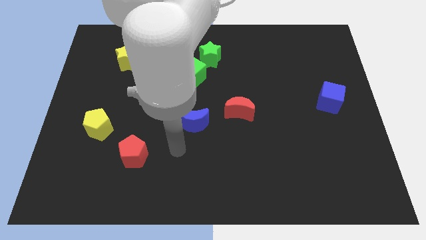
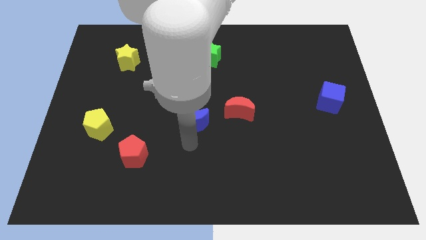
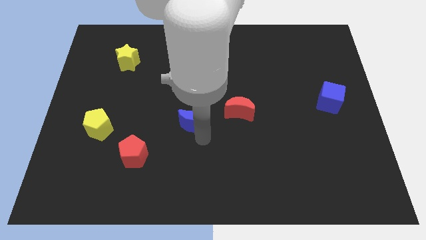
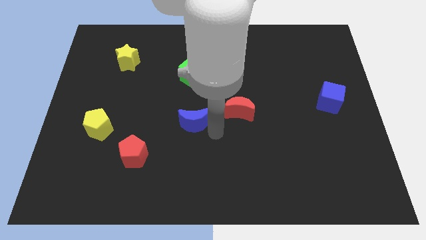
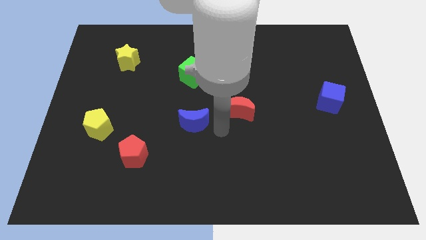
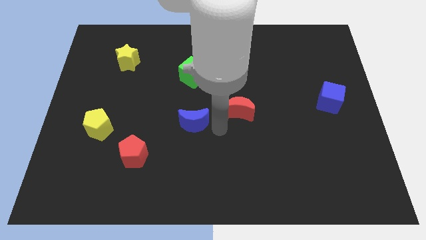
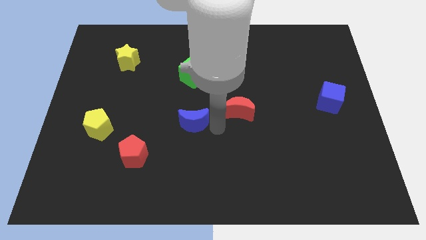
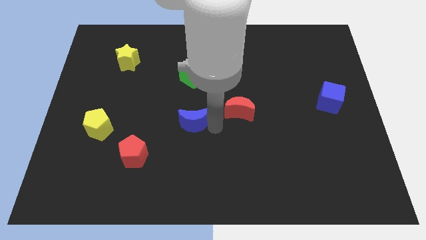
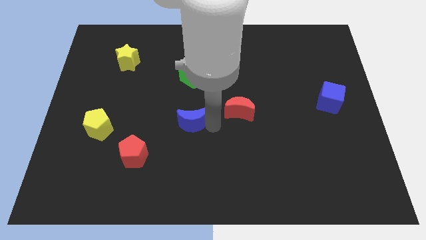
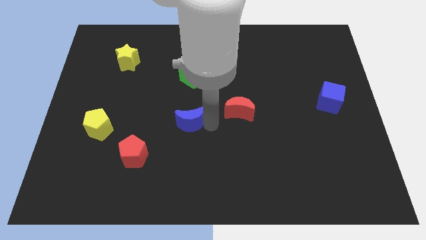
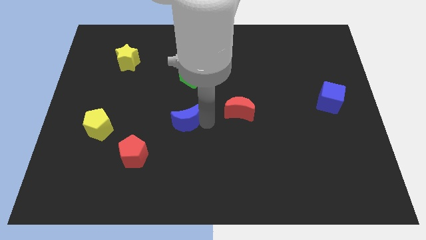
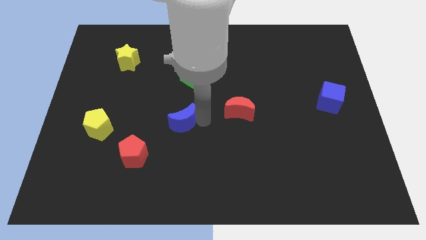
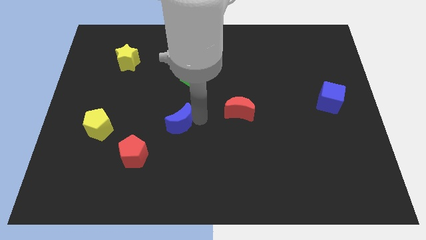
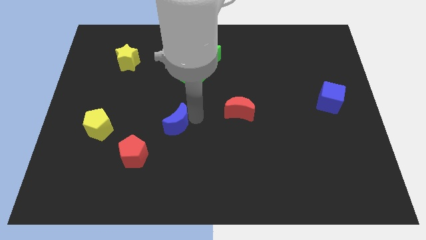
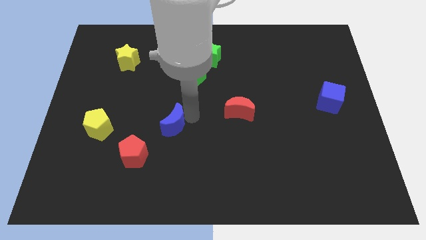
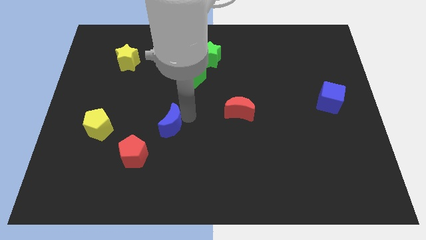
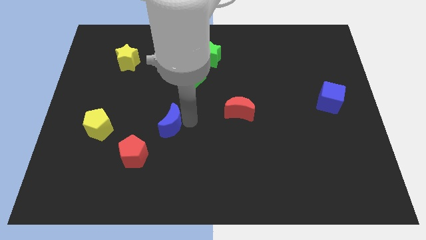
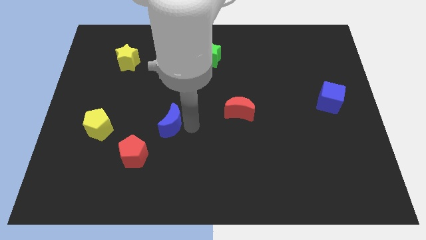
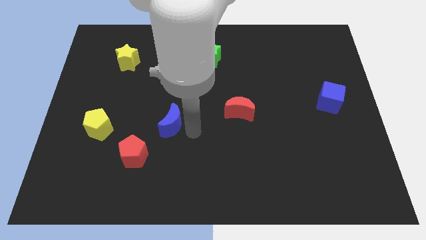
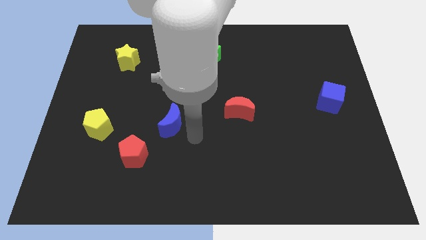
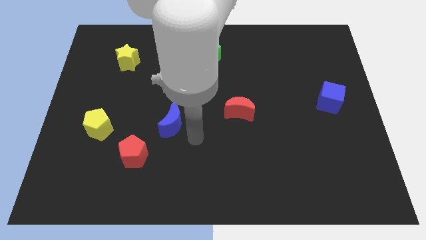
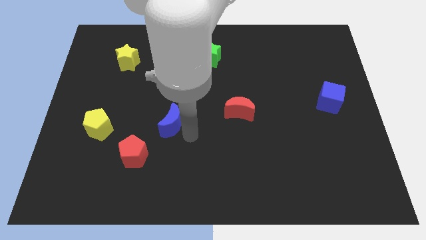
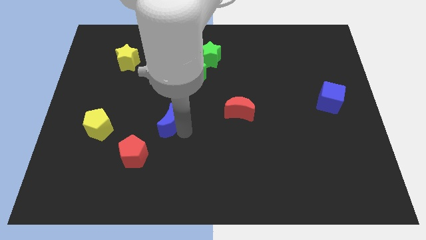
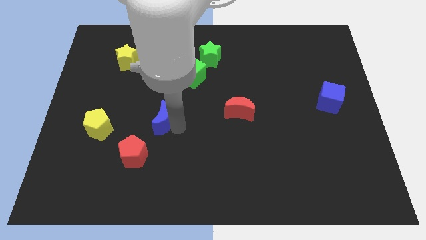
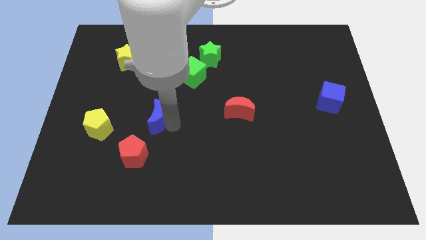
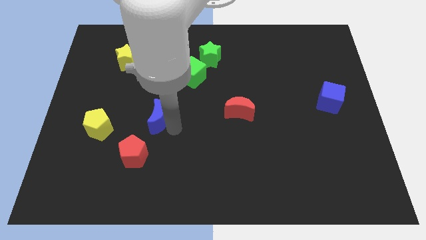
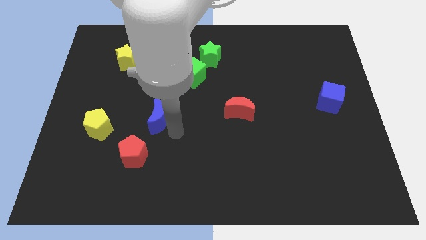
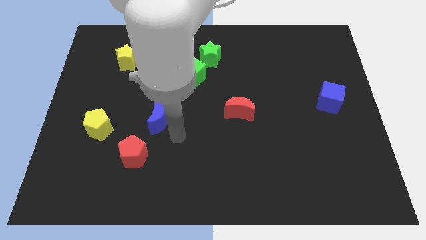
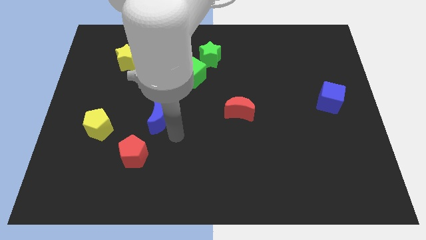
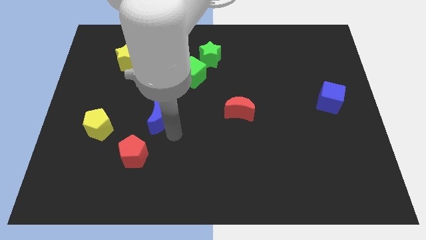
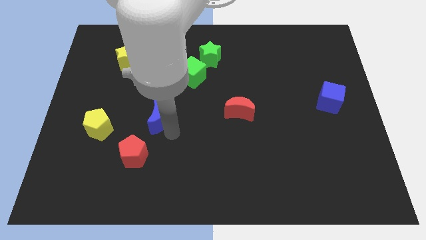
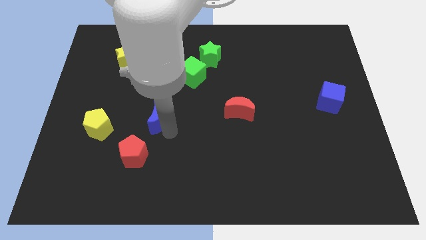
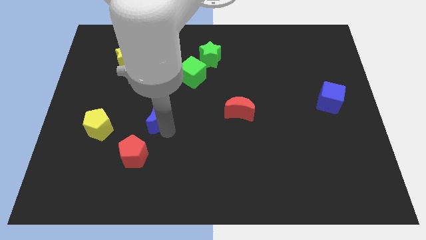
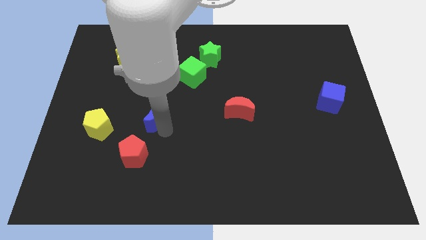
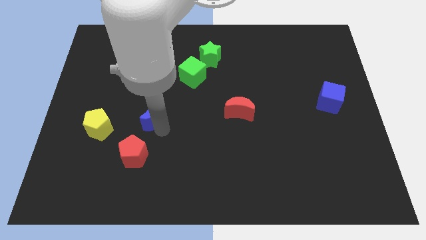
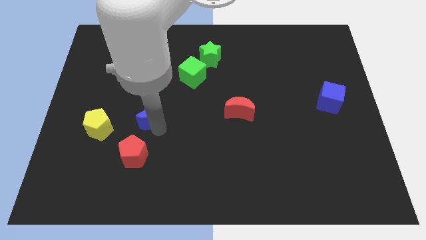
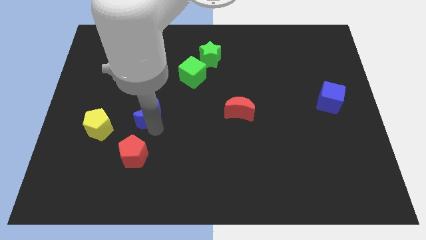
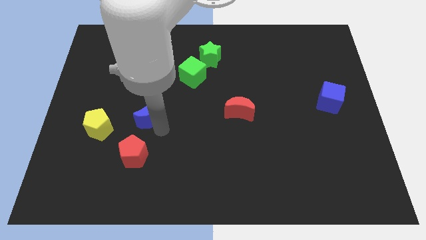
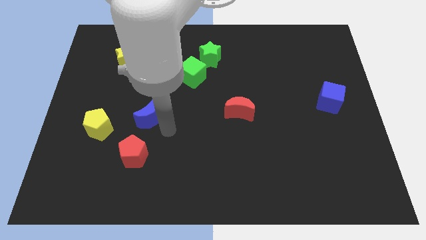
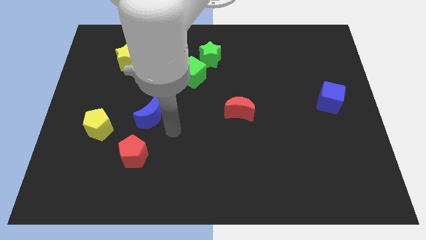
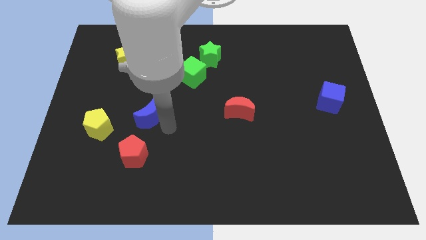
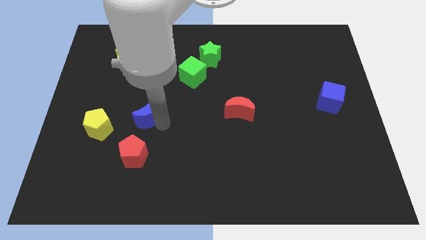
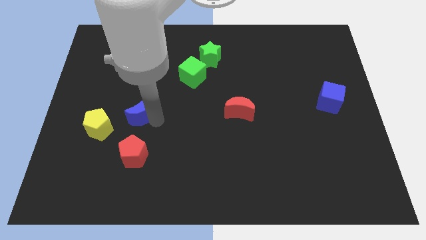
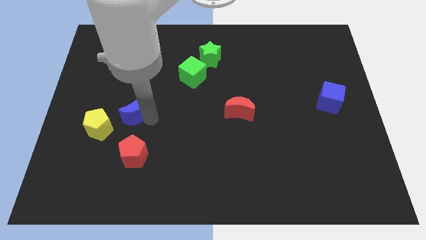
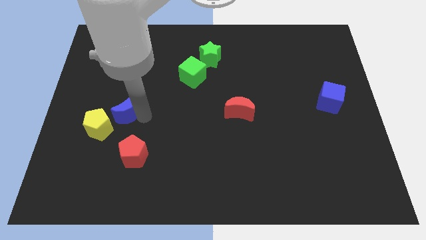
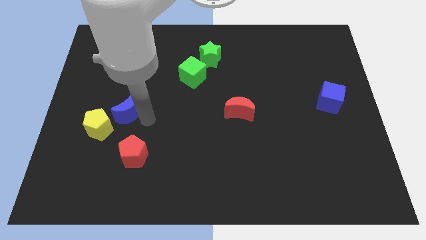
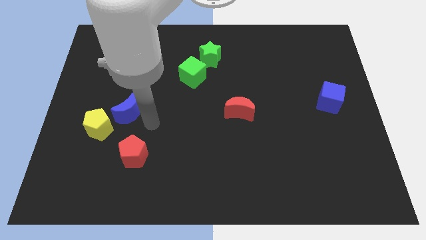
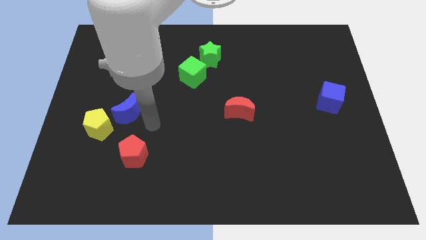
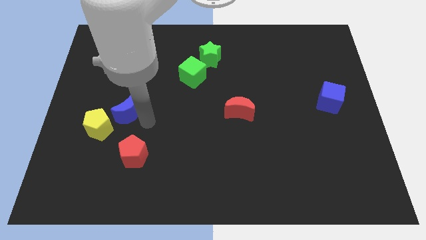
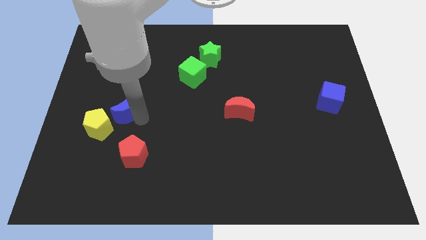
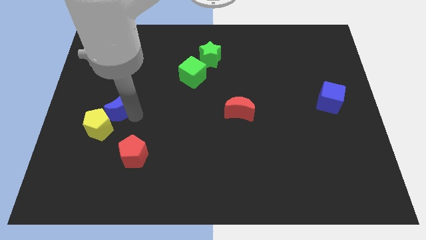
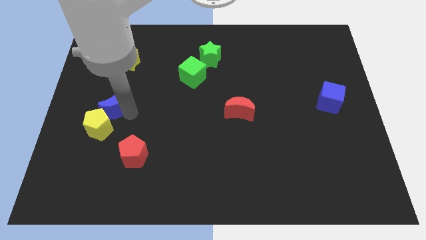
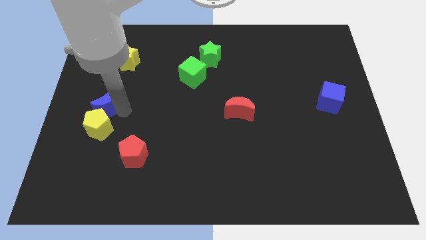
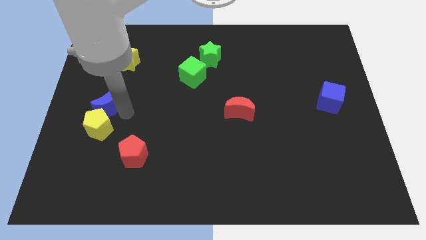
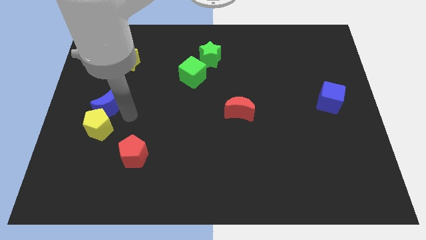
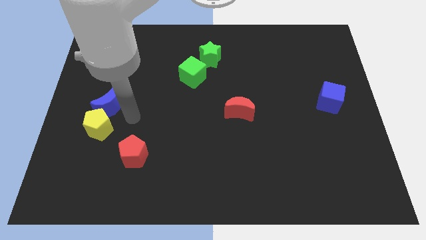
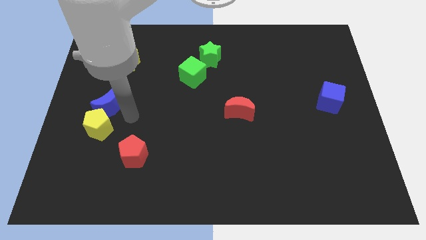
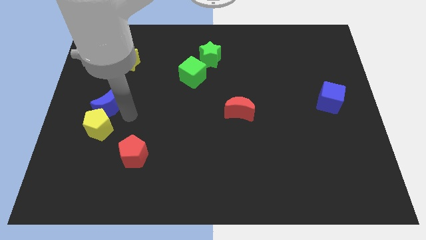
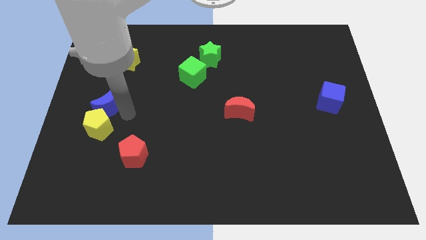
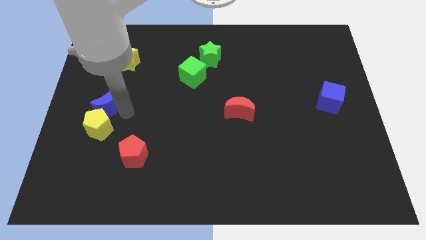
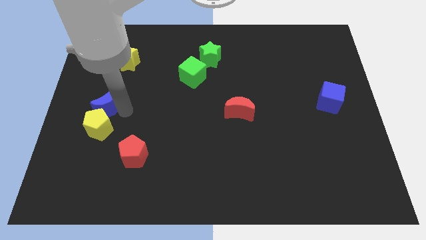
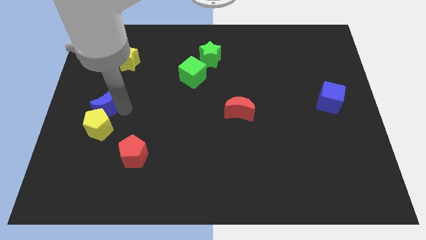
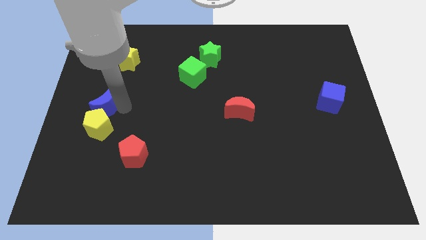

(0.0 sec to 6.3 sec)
slide the blue moon to the center left
